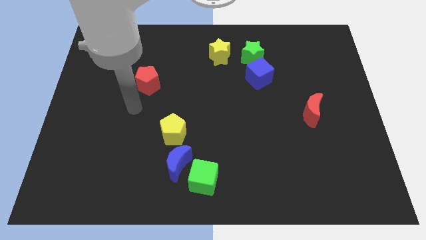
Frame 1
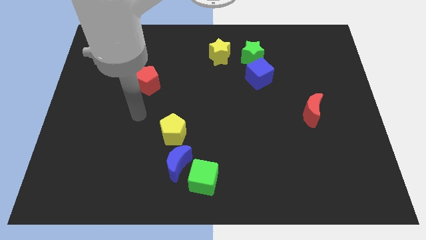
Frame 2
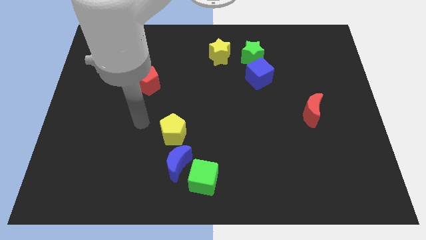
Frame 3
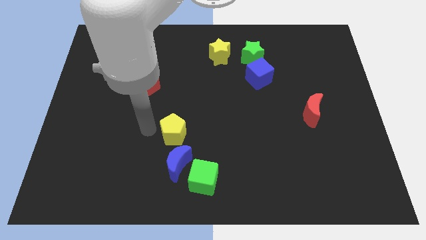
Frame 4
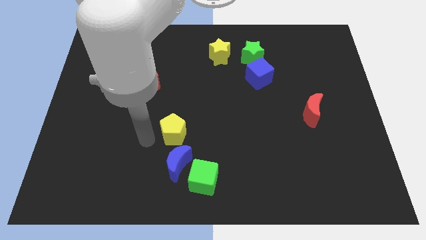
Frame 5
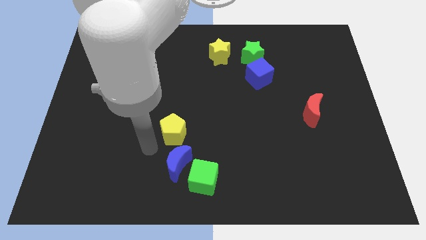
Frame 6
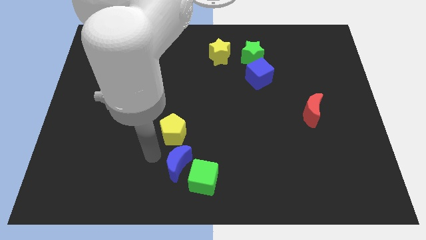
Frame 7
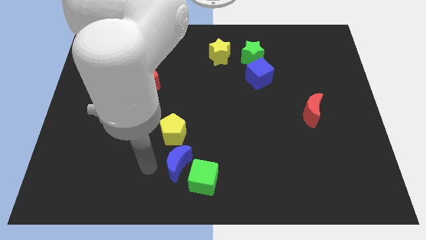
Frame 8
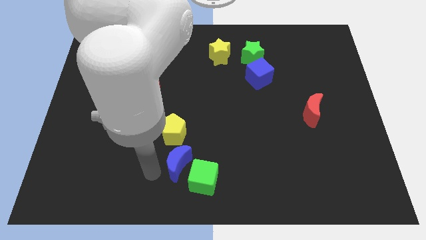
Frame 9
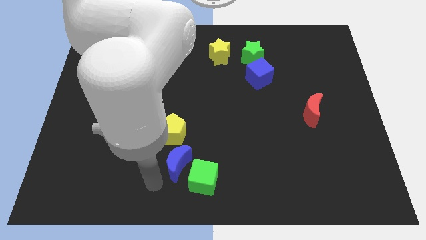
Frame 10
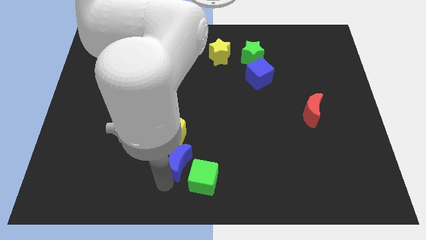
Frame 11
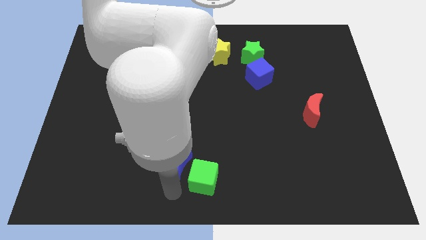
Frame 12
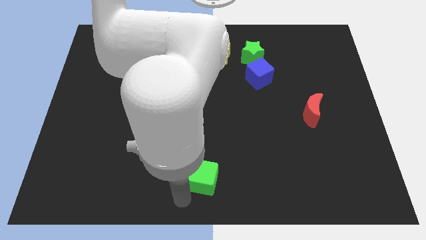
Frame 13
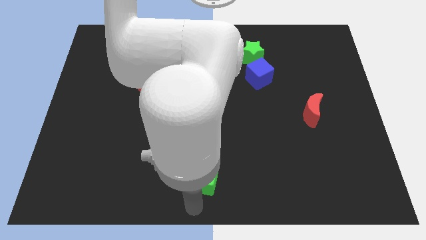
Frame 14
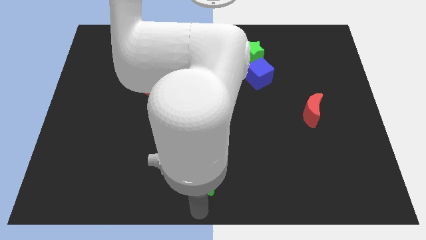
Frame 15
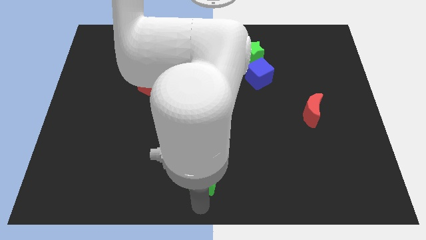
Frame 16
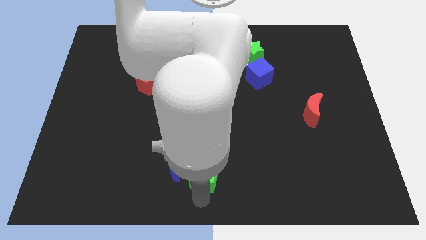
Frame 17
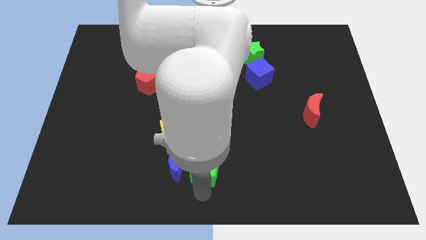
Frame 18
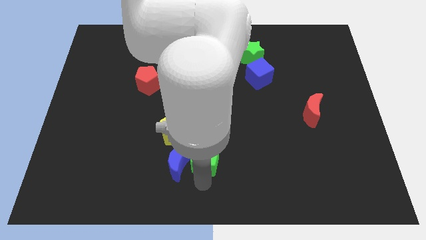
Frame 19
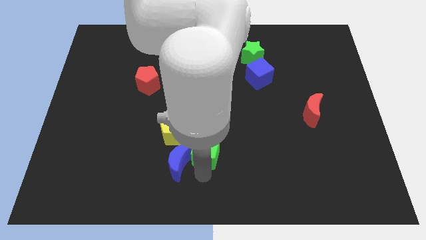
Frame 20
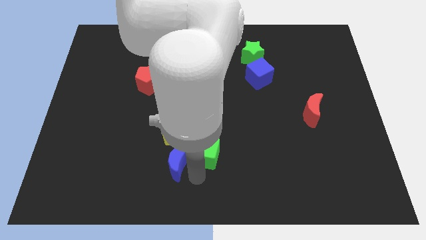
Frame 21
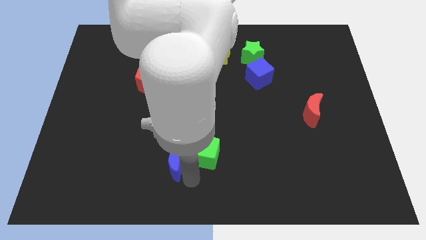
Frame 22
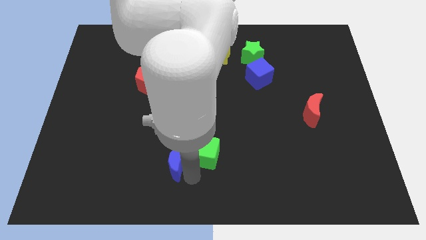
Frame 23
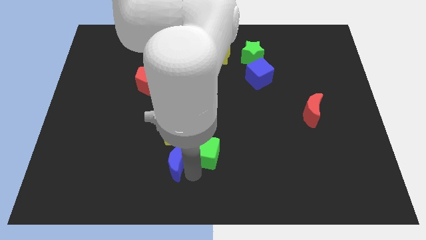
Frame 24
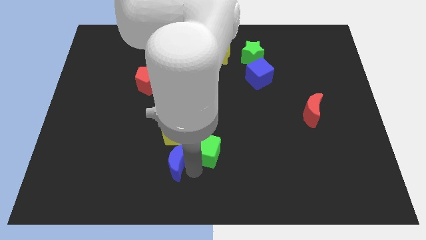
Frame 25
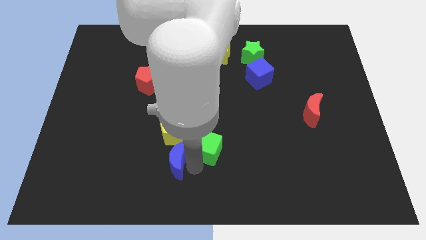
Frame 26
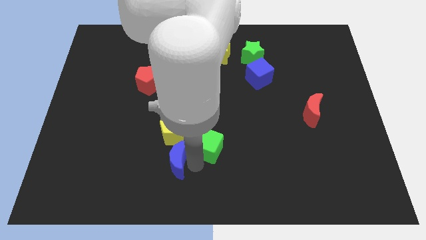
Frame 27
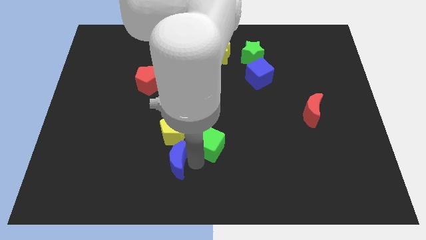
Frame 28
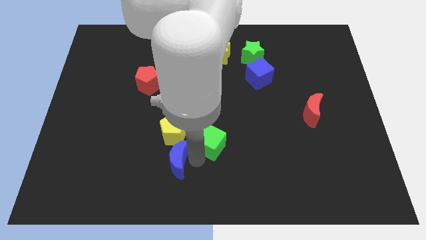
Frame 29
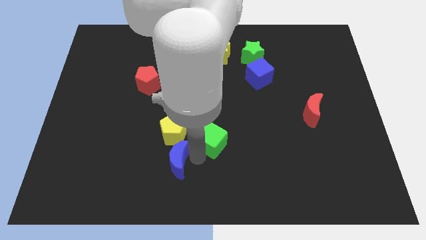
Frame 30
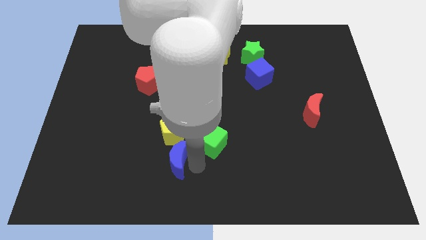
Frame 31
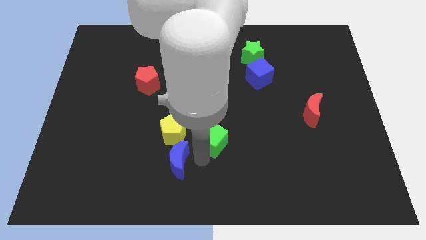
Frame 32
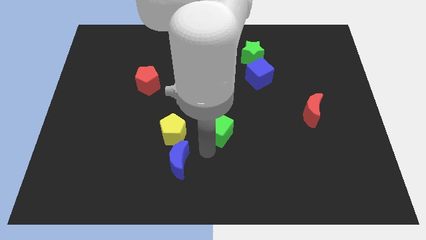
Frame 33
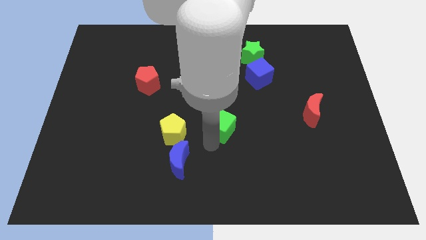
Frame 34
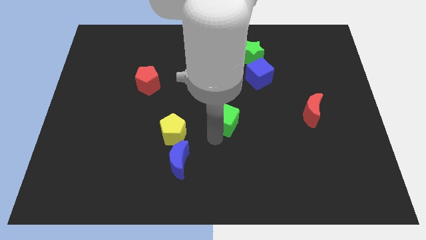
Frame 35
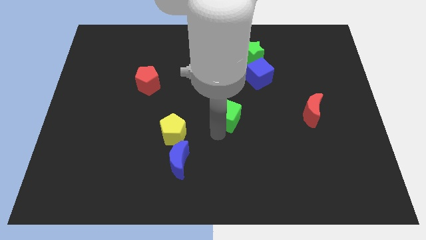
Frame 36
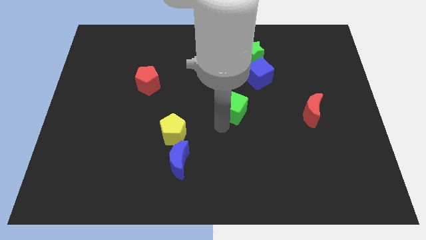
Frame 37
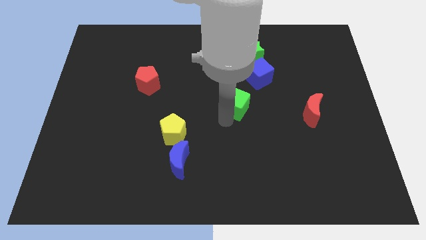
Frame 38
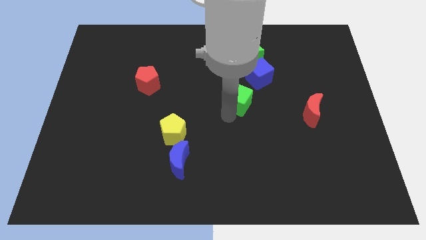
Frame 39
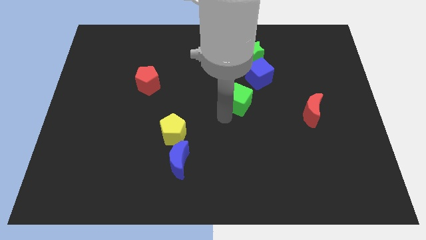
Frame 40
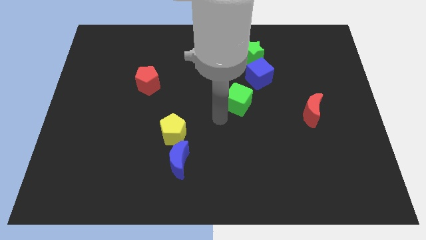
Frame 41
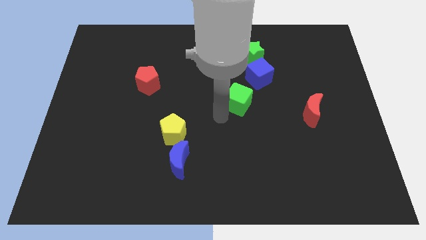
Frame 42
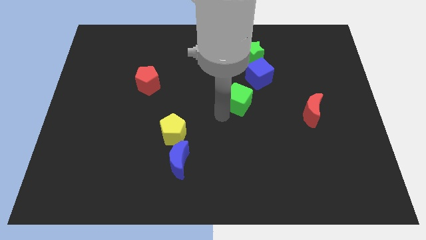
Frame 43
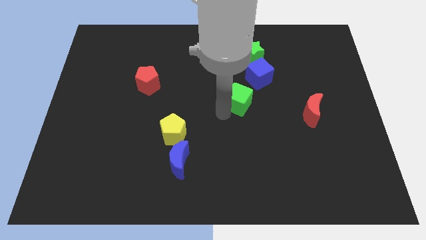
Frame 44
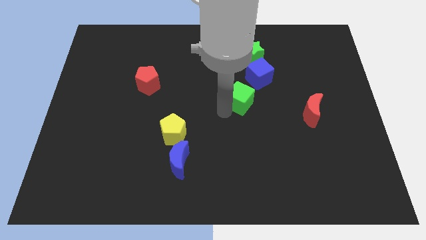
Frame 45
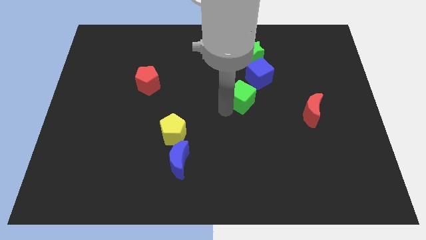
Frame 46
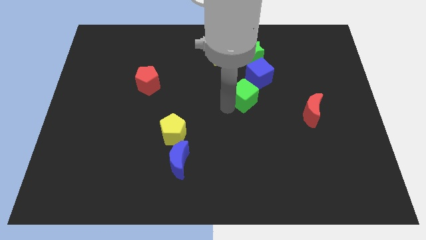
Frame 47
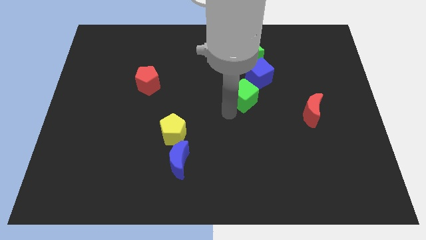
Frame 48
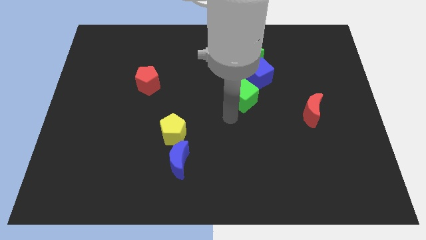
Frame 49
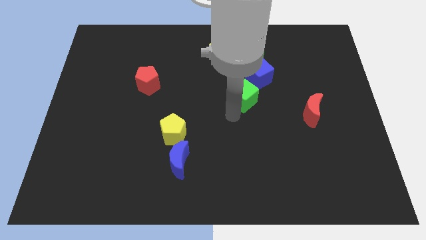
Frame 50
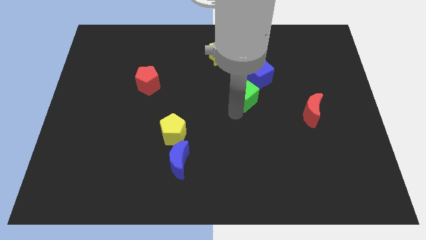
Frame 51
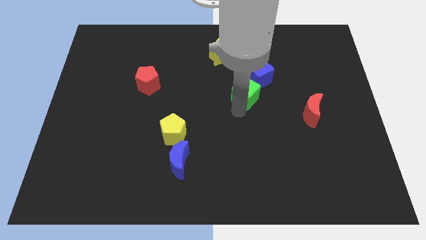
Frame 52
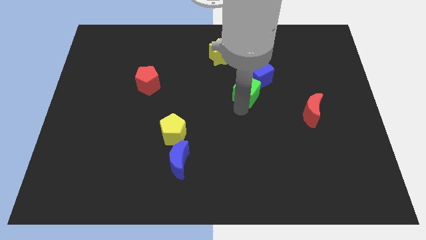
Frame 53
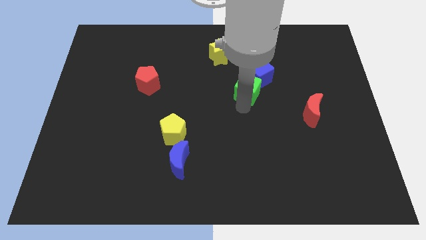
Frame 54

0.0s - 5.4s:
slide the green cube to the blue cube

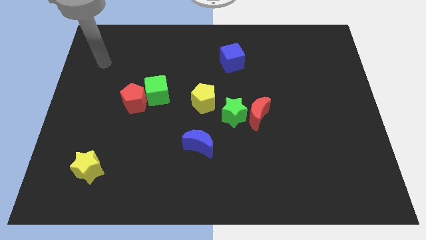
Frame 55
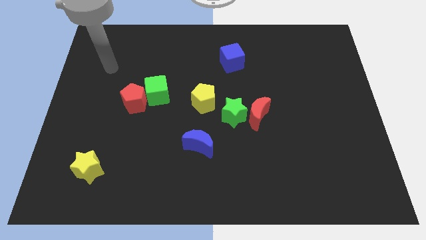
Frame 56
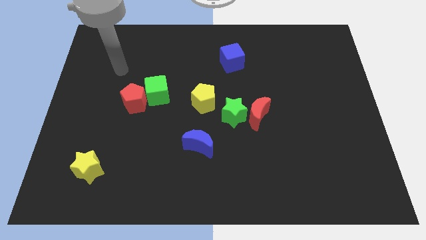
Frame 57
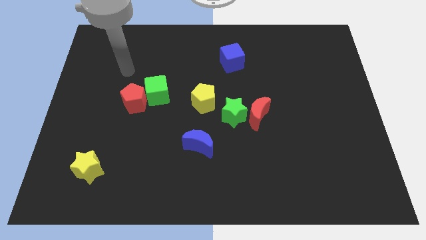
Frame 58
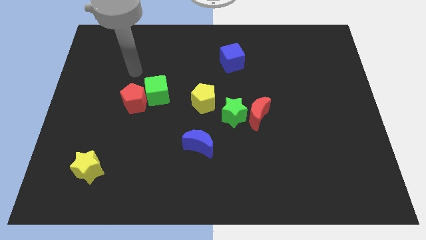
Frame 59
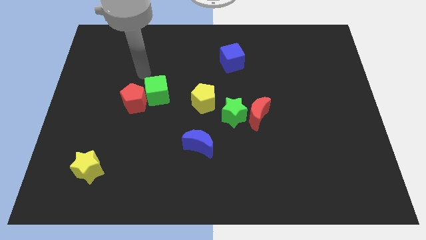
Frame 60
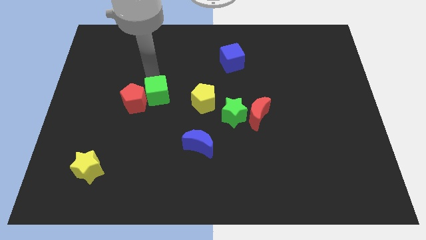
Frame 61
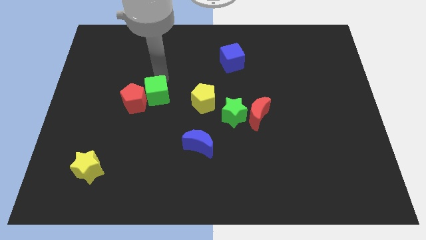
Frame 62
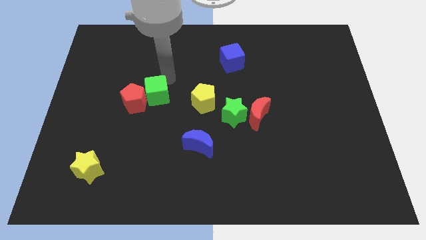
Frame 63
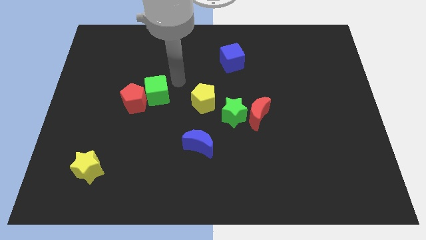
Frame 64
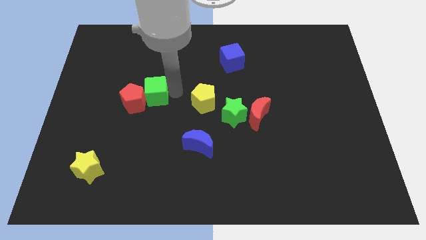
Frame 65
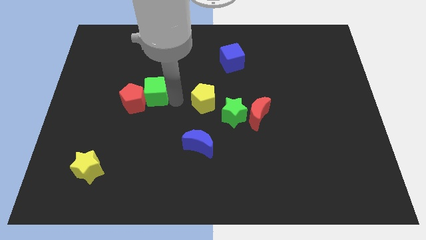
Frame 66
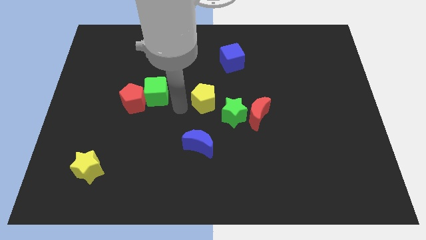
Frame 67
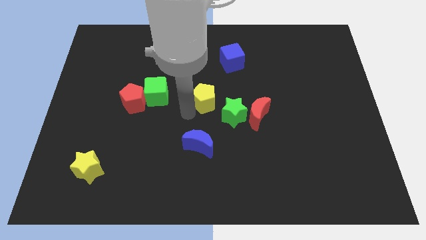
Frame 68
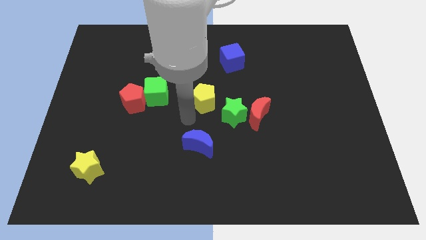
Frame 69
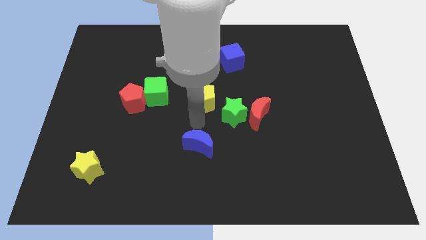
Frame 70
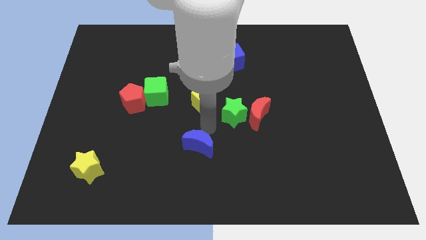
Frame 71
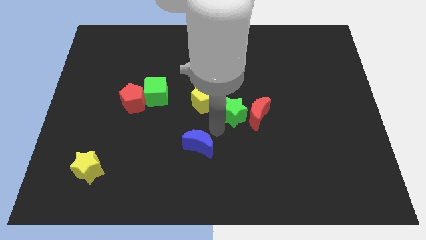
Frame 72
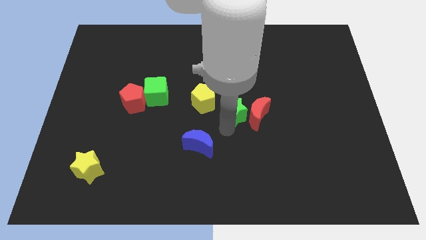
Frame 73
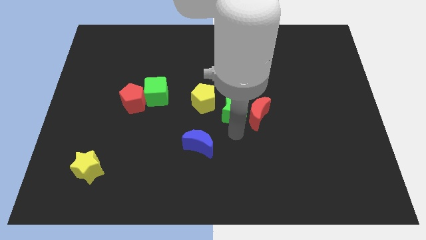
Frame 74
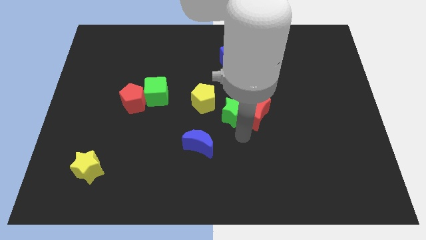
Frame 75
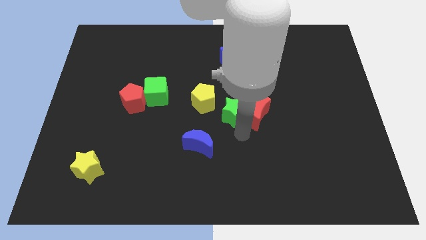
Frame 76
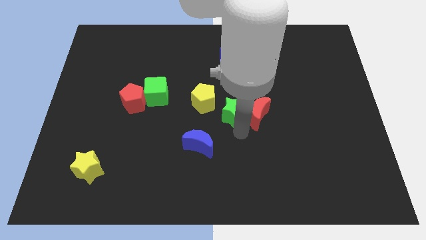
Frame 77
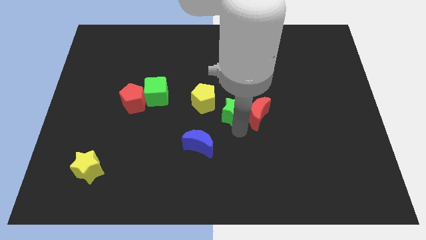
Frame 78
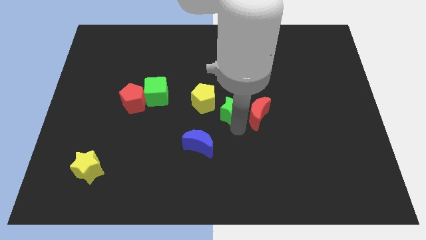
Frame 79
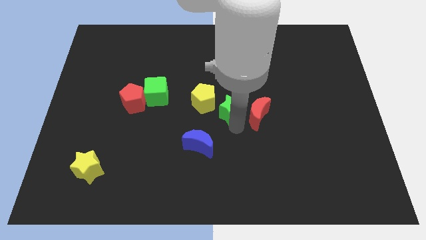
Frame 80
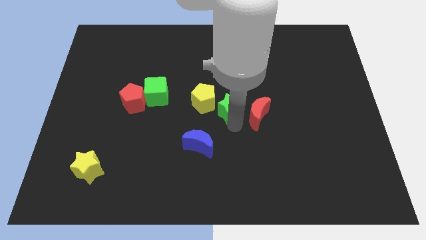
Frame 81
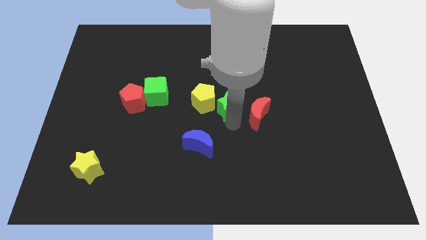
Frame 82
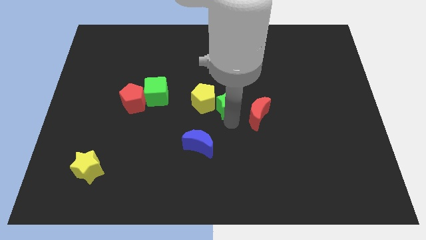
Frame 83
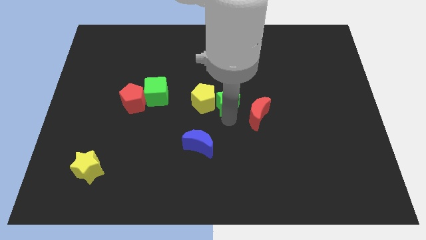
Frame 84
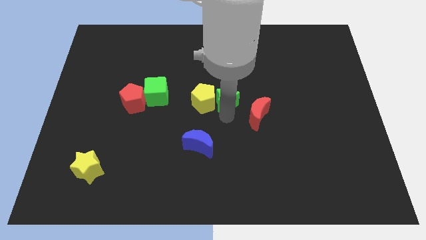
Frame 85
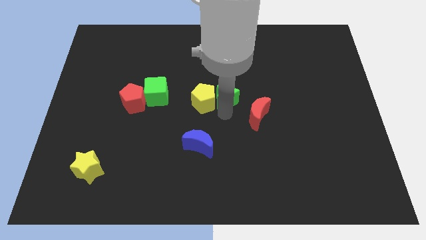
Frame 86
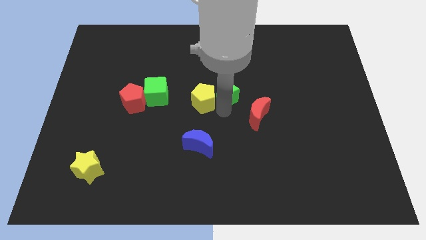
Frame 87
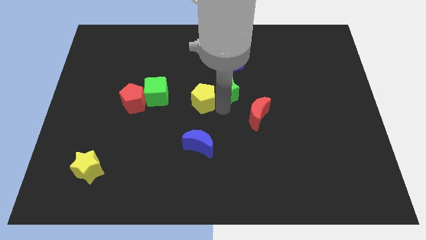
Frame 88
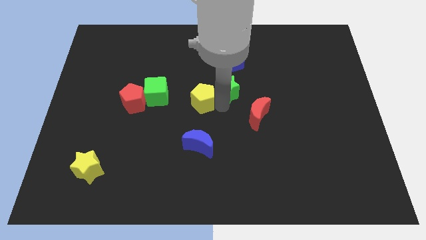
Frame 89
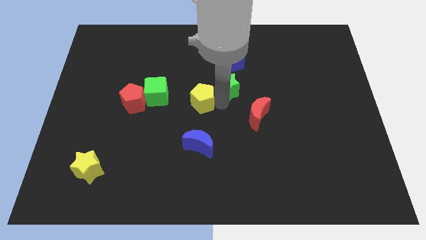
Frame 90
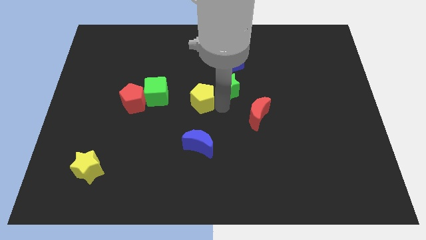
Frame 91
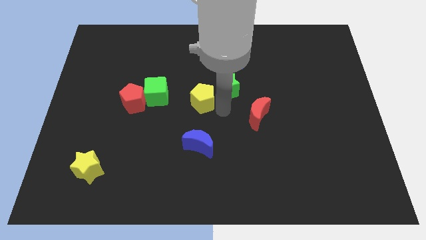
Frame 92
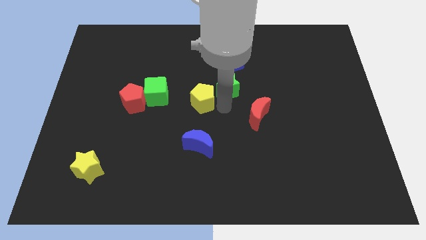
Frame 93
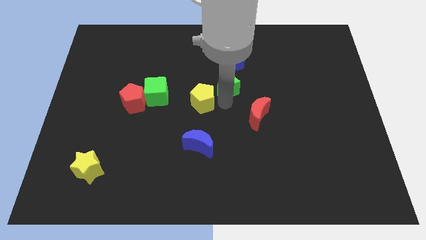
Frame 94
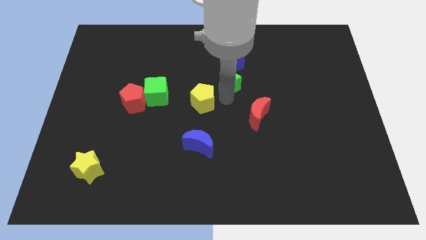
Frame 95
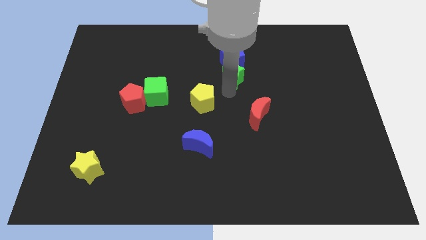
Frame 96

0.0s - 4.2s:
slide the green star next to the blue cube
